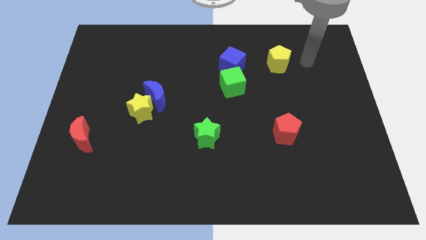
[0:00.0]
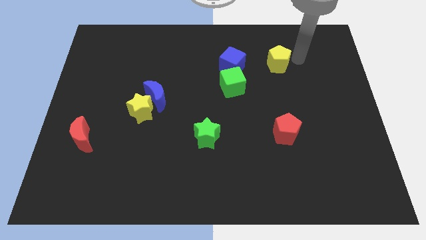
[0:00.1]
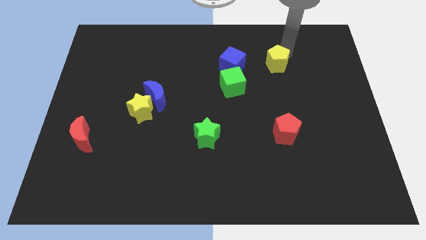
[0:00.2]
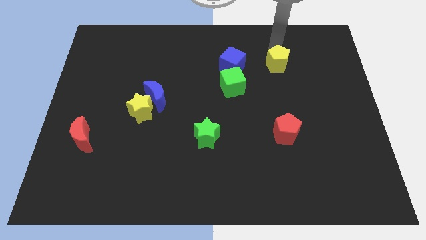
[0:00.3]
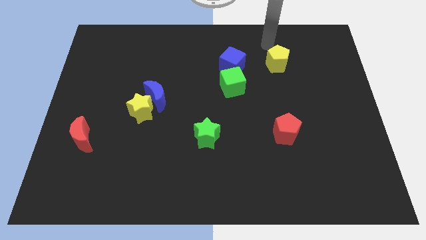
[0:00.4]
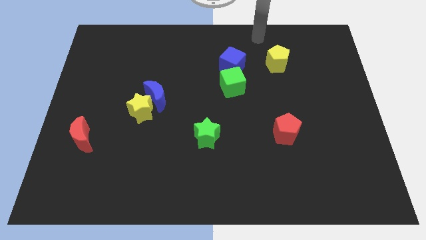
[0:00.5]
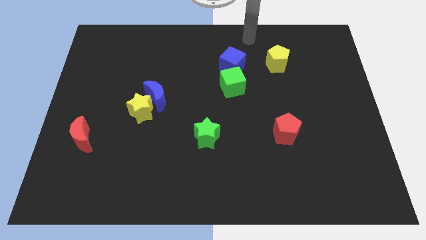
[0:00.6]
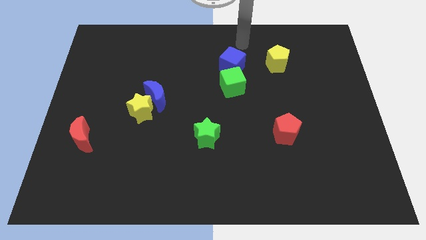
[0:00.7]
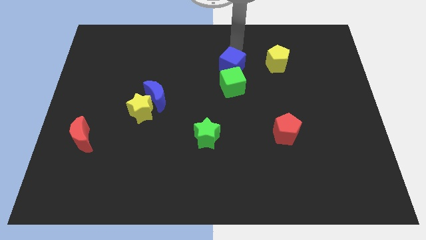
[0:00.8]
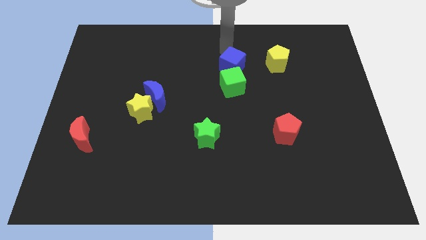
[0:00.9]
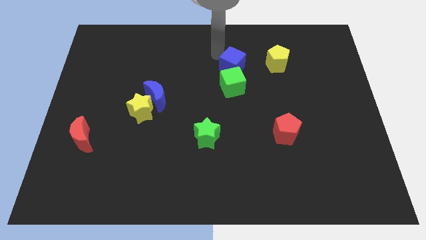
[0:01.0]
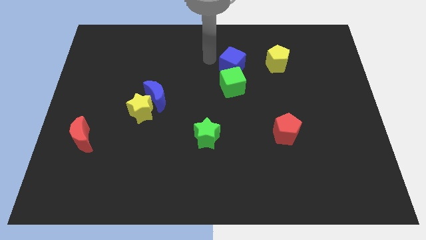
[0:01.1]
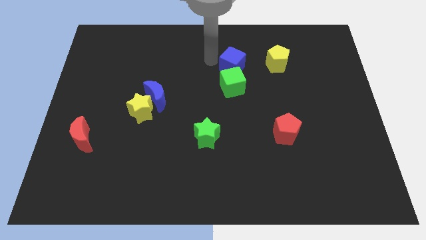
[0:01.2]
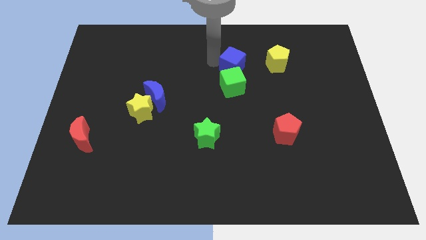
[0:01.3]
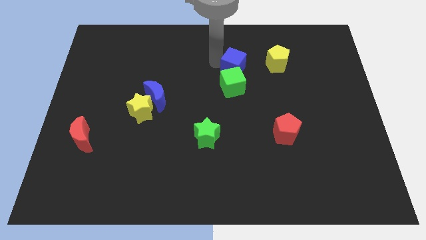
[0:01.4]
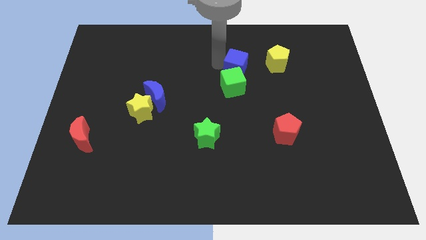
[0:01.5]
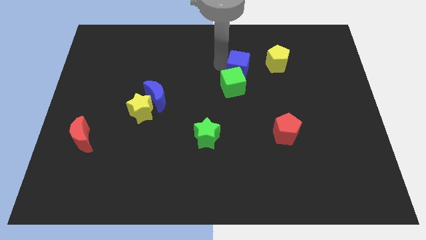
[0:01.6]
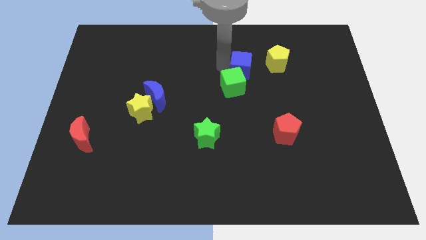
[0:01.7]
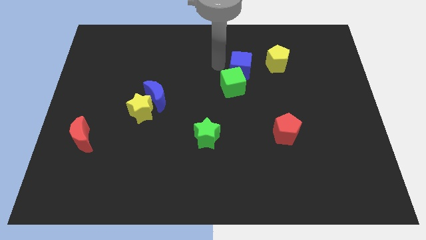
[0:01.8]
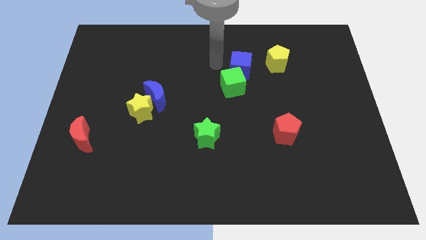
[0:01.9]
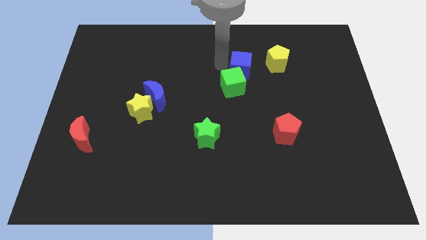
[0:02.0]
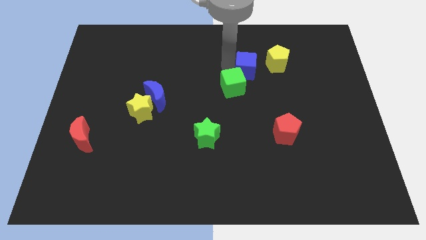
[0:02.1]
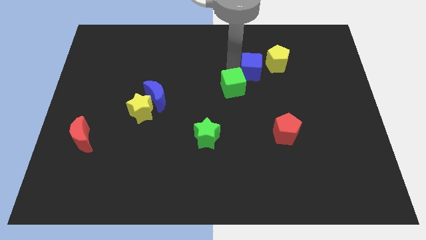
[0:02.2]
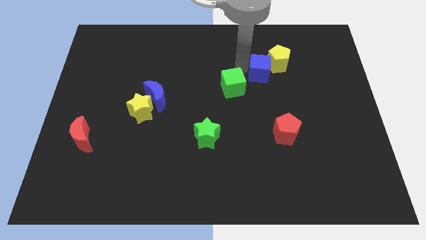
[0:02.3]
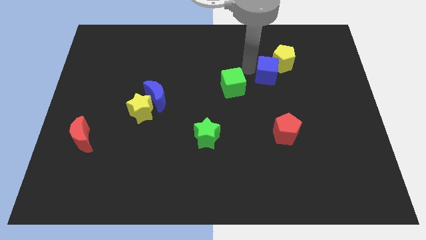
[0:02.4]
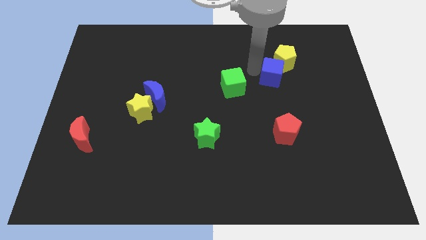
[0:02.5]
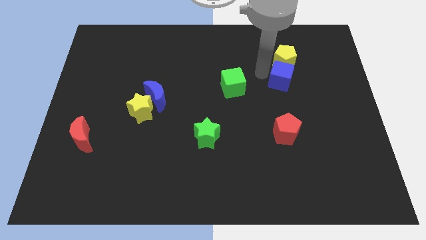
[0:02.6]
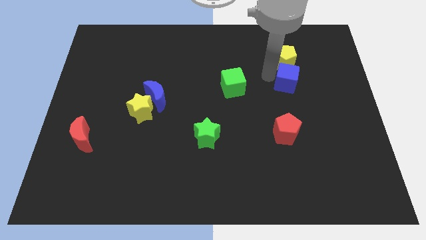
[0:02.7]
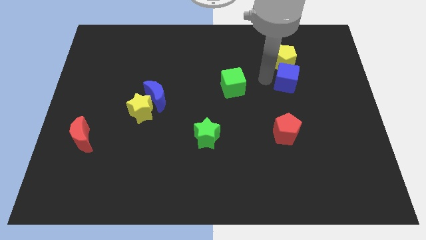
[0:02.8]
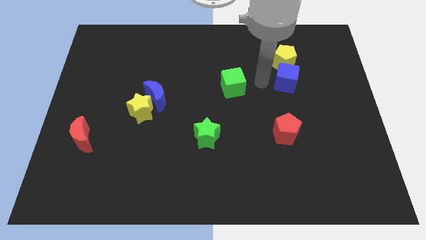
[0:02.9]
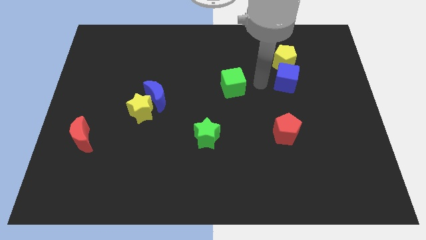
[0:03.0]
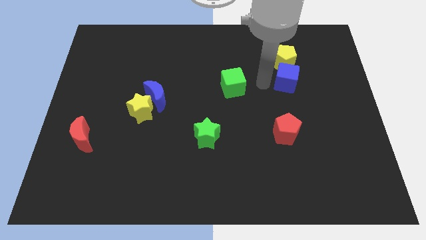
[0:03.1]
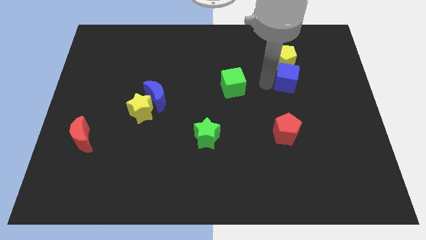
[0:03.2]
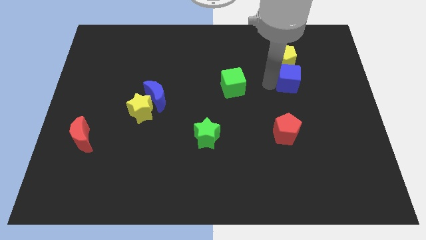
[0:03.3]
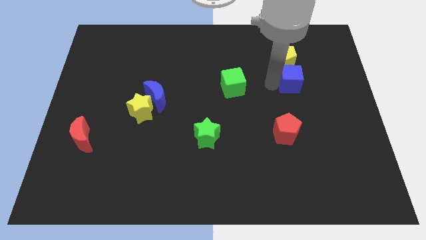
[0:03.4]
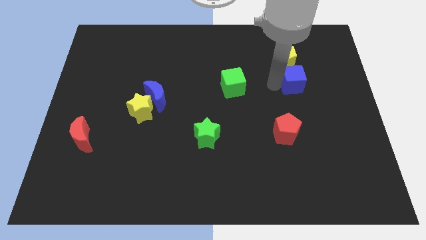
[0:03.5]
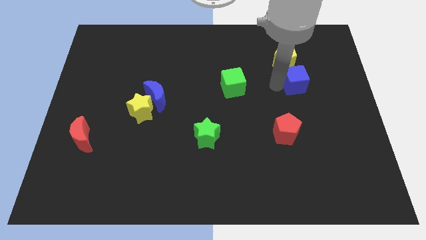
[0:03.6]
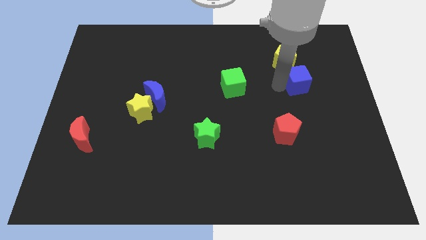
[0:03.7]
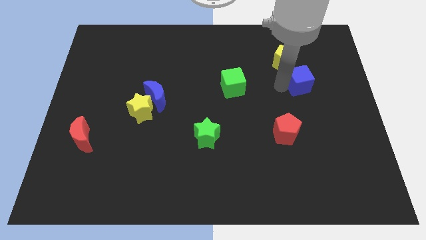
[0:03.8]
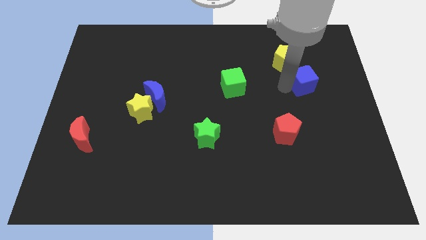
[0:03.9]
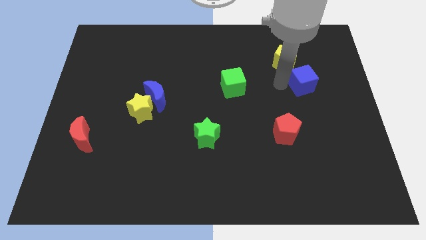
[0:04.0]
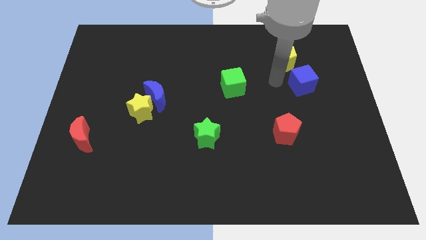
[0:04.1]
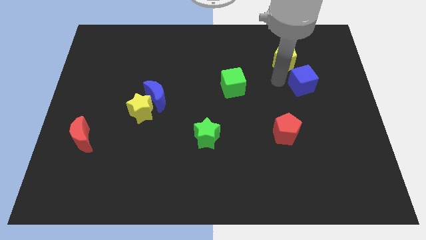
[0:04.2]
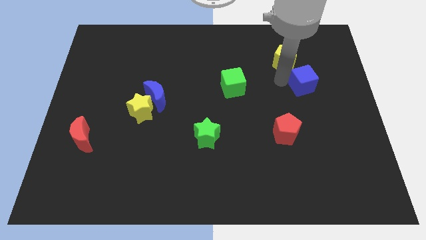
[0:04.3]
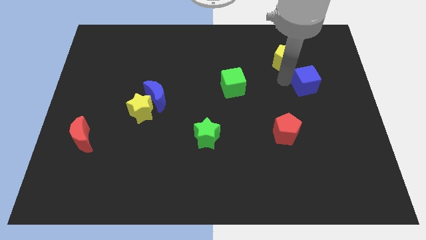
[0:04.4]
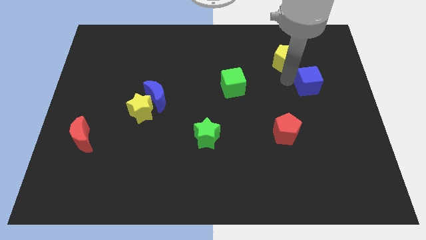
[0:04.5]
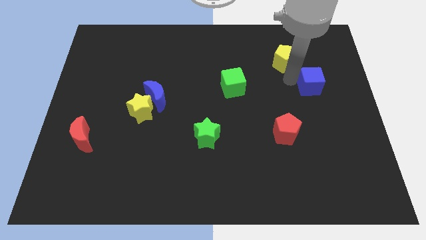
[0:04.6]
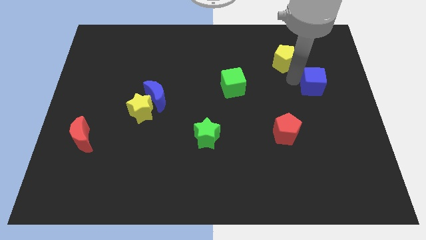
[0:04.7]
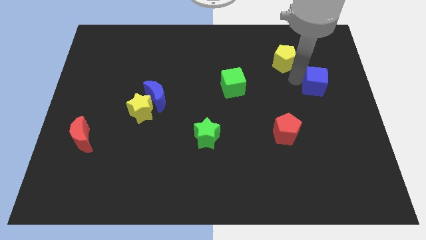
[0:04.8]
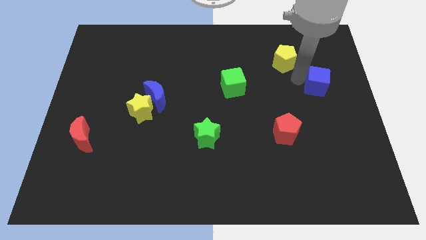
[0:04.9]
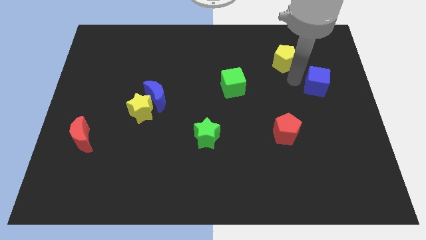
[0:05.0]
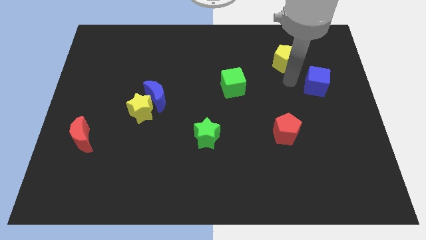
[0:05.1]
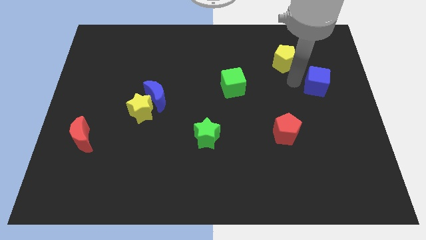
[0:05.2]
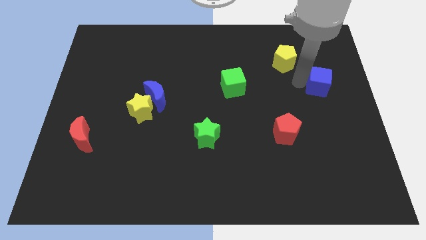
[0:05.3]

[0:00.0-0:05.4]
slide the blue cube to the center right
